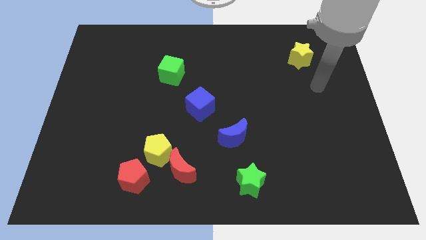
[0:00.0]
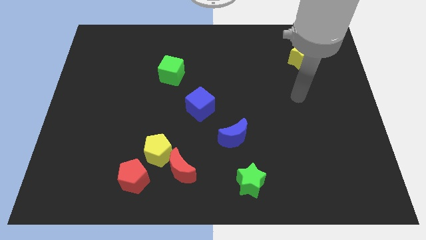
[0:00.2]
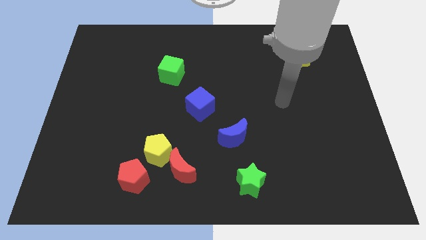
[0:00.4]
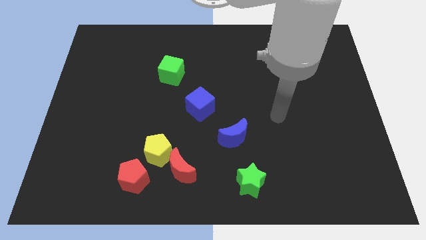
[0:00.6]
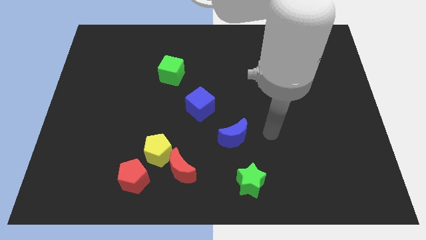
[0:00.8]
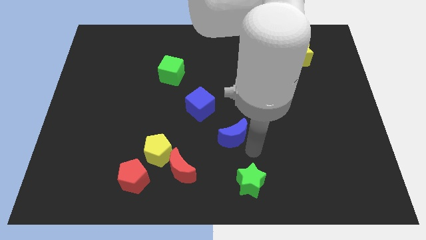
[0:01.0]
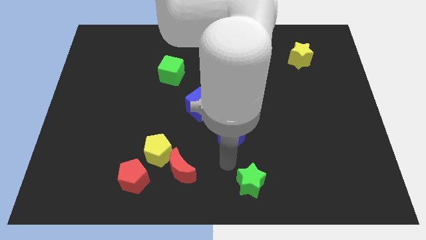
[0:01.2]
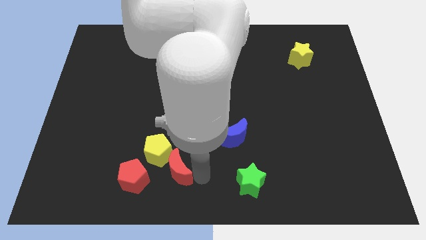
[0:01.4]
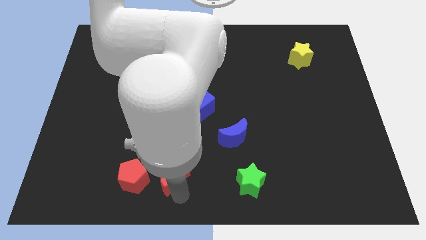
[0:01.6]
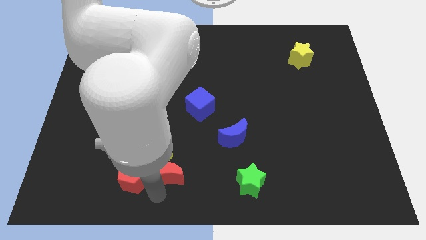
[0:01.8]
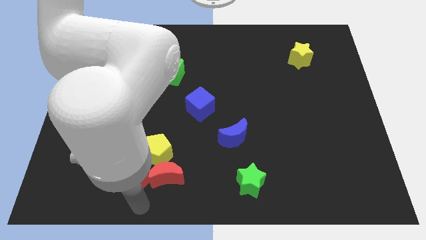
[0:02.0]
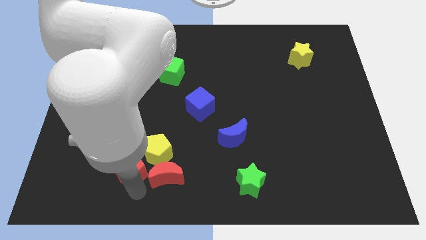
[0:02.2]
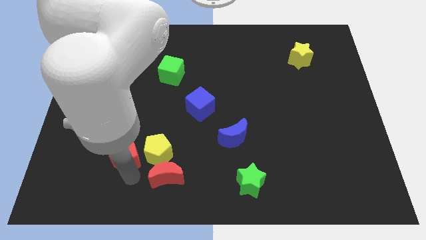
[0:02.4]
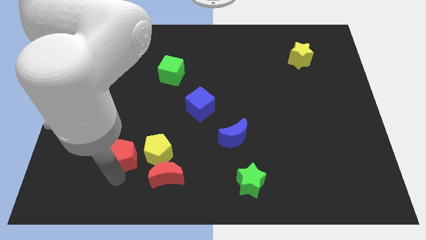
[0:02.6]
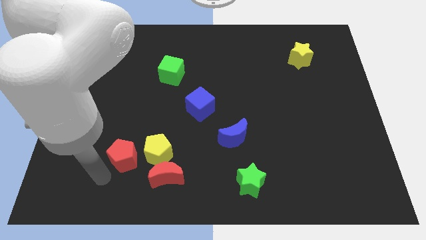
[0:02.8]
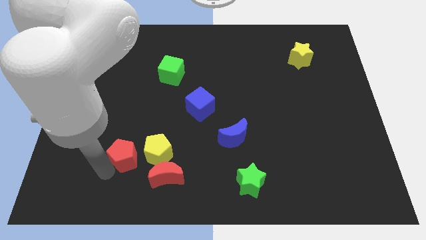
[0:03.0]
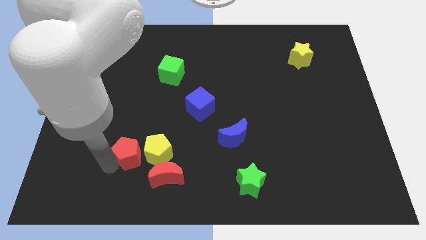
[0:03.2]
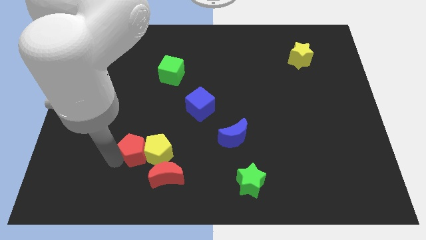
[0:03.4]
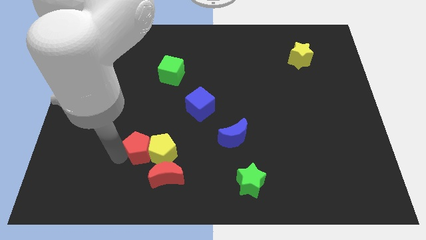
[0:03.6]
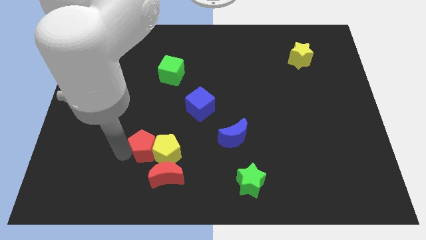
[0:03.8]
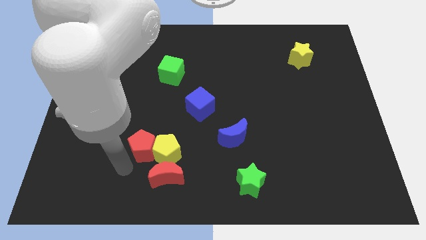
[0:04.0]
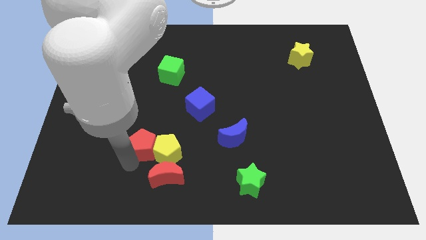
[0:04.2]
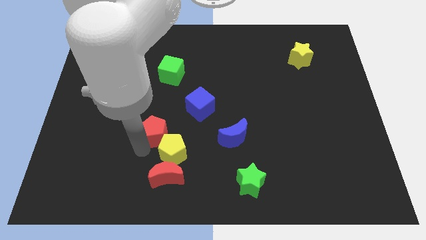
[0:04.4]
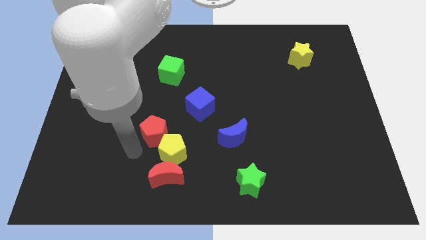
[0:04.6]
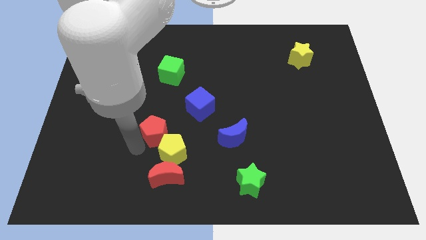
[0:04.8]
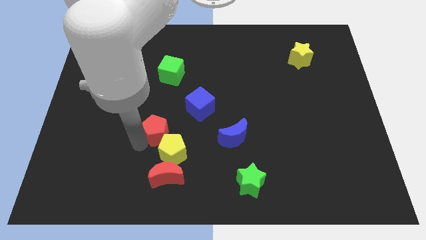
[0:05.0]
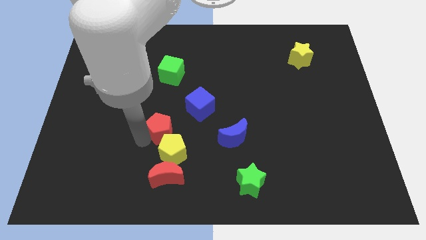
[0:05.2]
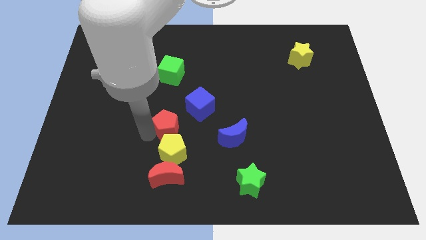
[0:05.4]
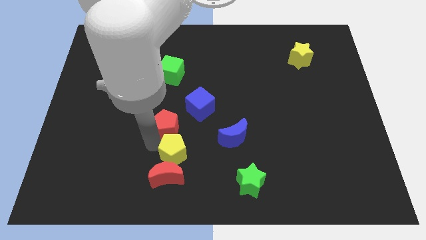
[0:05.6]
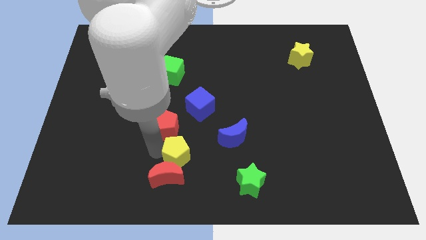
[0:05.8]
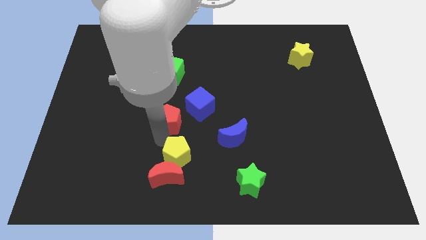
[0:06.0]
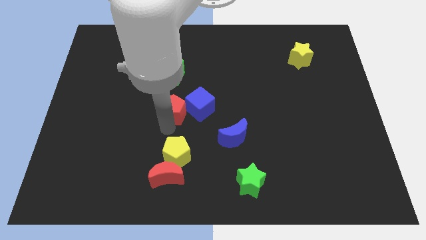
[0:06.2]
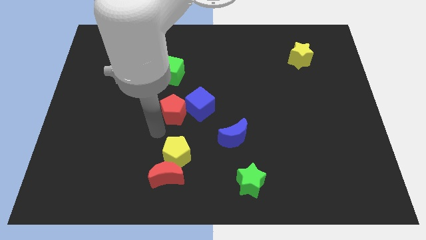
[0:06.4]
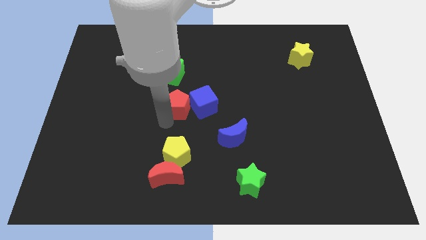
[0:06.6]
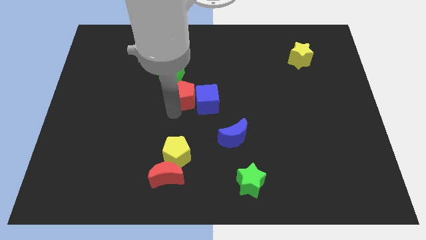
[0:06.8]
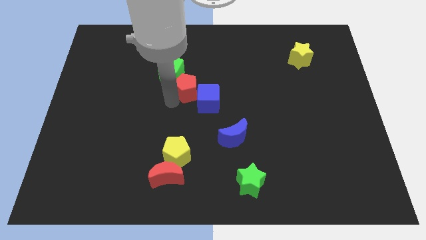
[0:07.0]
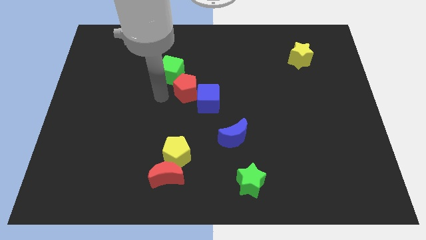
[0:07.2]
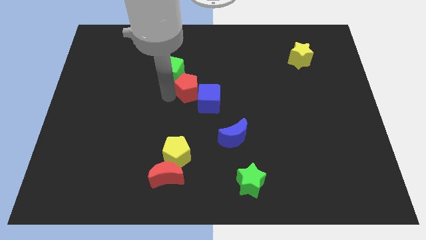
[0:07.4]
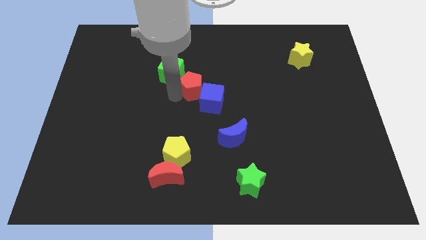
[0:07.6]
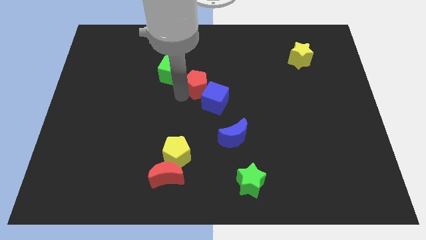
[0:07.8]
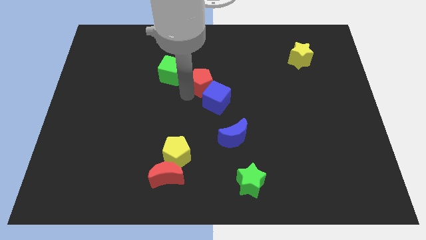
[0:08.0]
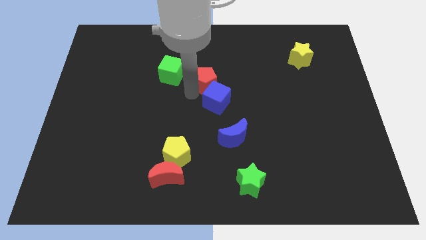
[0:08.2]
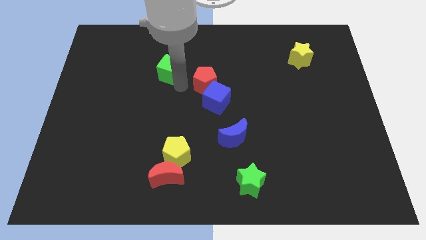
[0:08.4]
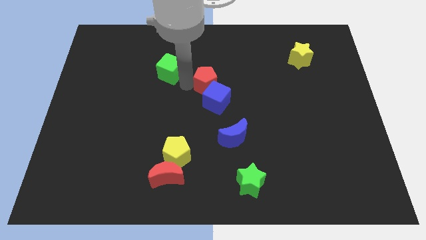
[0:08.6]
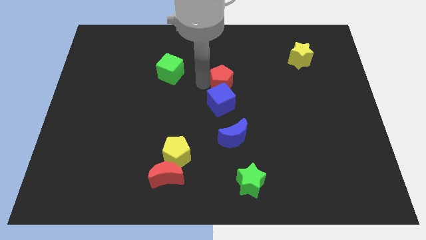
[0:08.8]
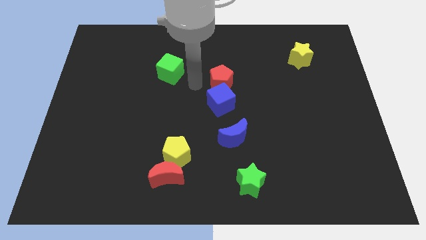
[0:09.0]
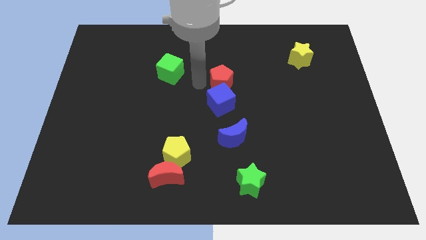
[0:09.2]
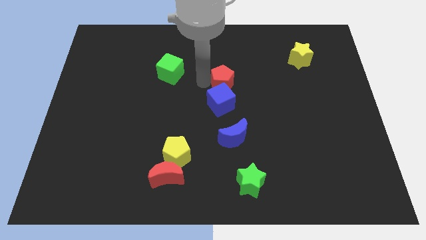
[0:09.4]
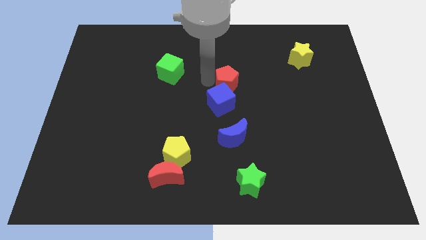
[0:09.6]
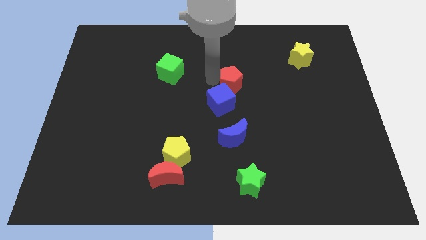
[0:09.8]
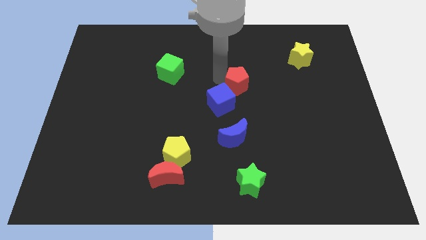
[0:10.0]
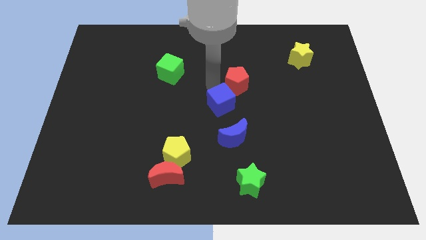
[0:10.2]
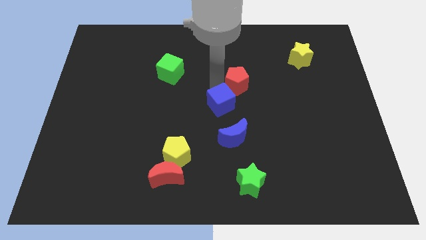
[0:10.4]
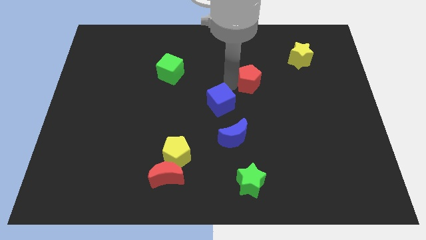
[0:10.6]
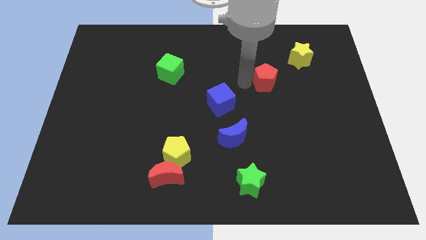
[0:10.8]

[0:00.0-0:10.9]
push the red pentagon to the bottom left side of the yellow star

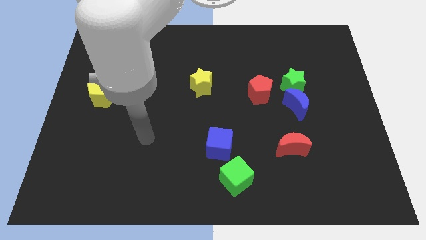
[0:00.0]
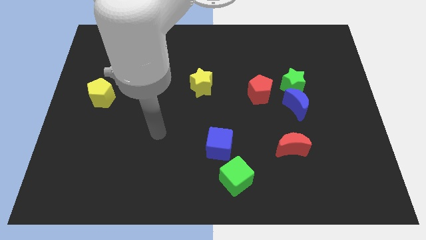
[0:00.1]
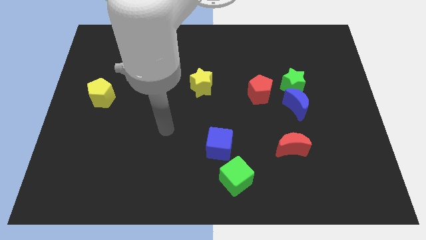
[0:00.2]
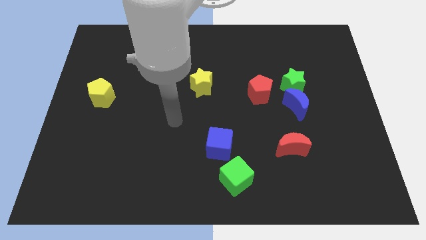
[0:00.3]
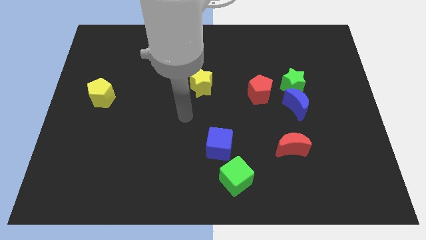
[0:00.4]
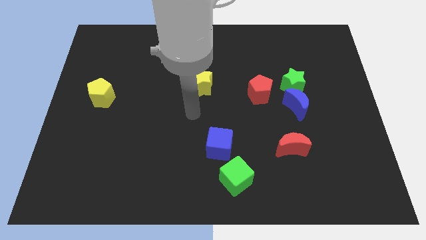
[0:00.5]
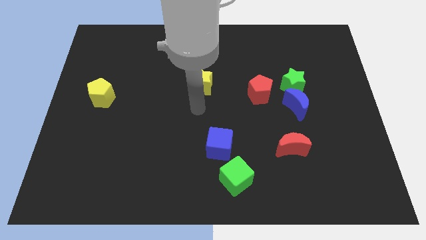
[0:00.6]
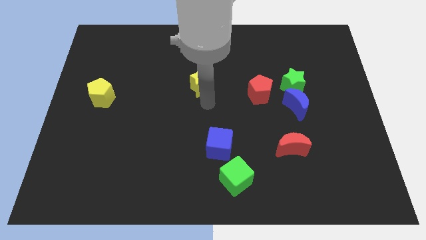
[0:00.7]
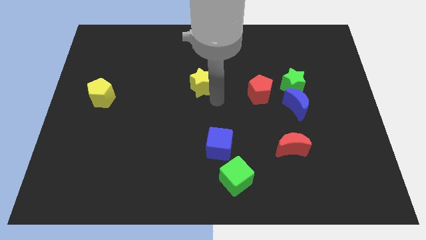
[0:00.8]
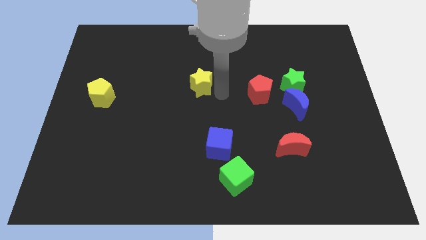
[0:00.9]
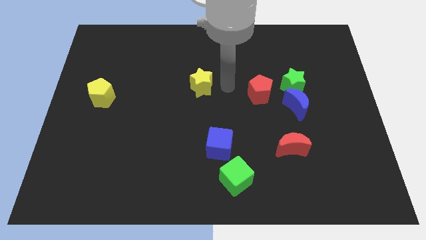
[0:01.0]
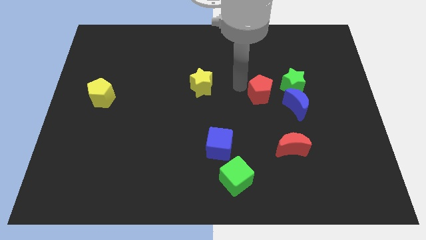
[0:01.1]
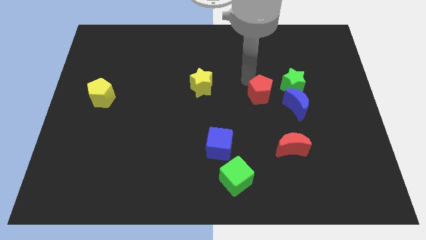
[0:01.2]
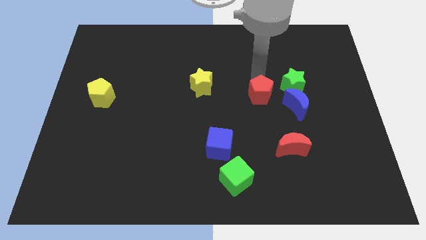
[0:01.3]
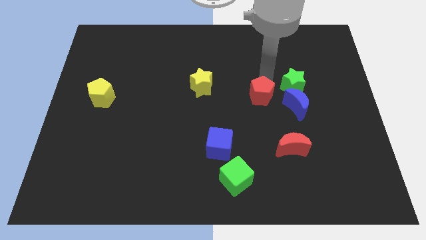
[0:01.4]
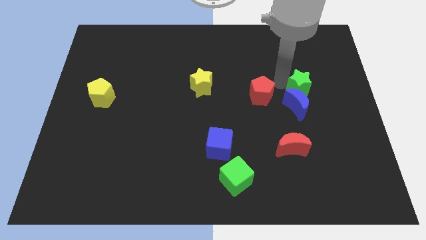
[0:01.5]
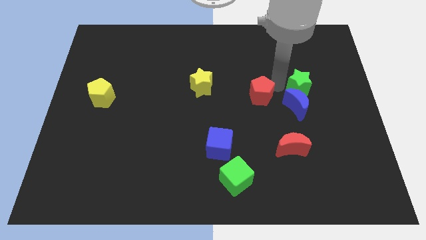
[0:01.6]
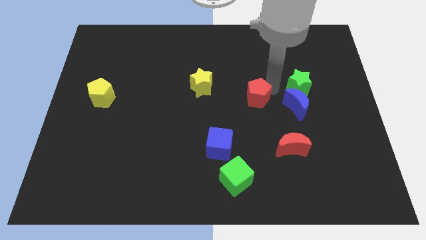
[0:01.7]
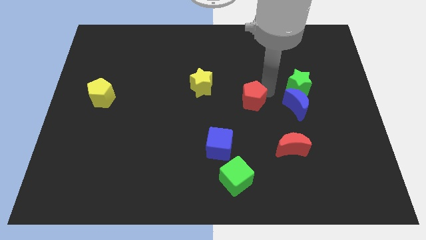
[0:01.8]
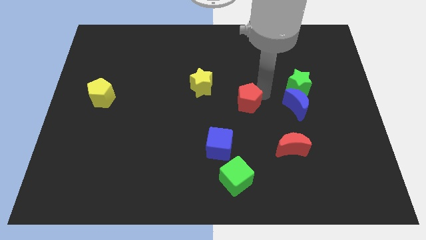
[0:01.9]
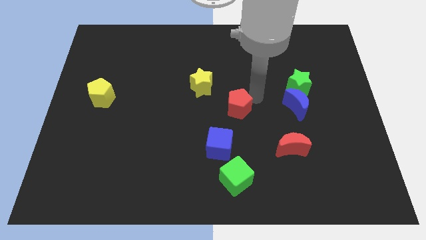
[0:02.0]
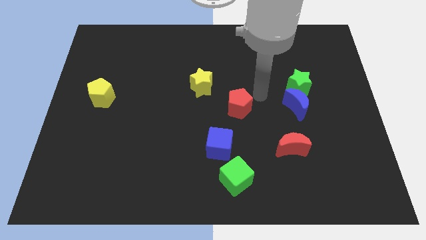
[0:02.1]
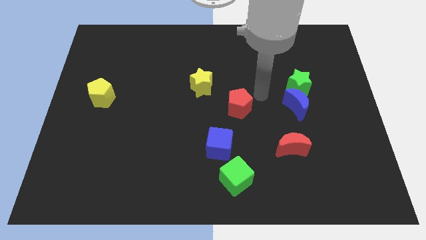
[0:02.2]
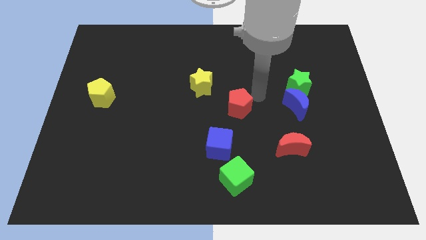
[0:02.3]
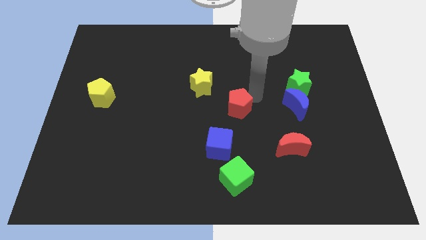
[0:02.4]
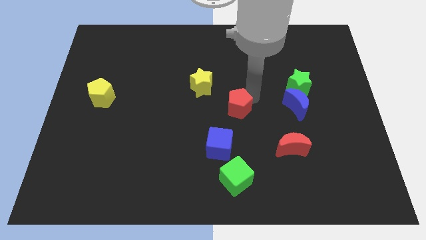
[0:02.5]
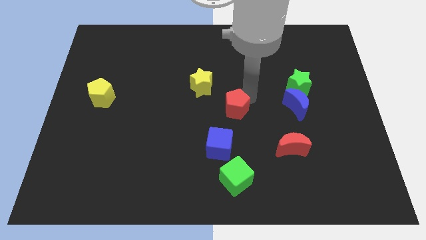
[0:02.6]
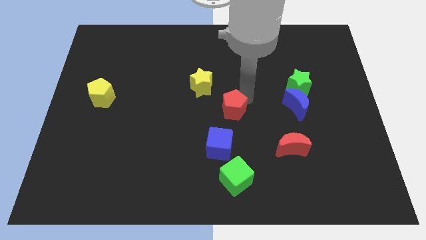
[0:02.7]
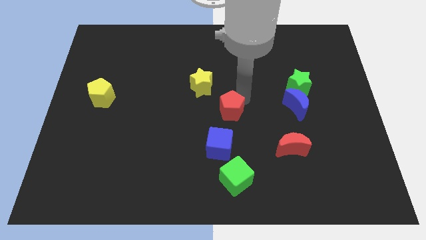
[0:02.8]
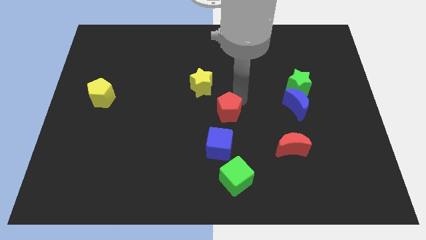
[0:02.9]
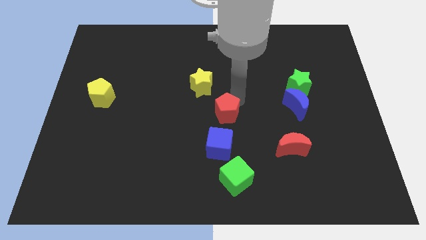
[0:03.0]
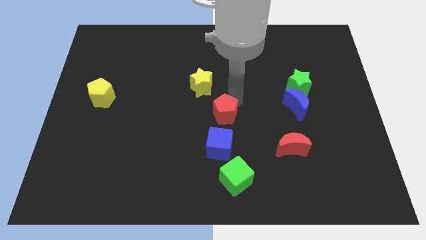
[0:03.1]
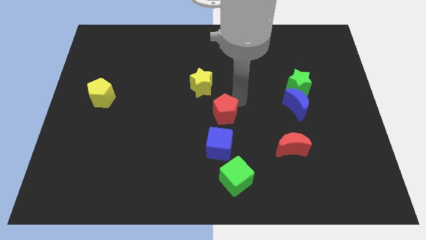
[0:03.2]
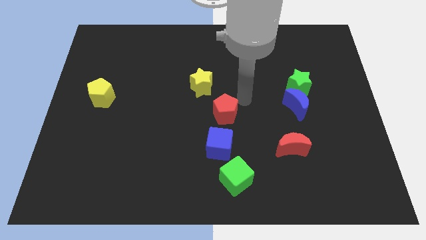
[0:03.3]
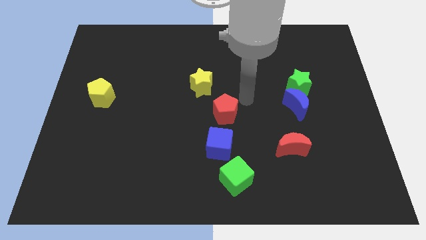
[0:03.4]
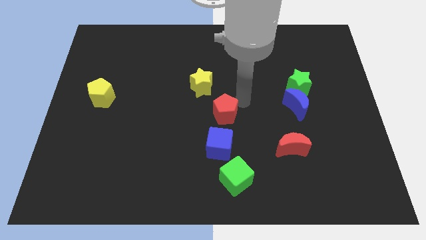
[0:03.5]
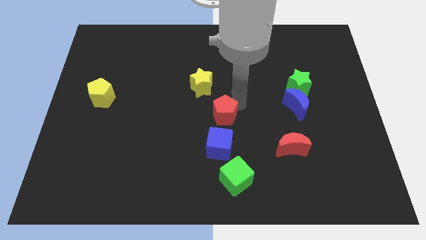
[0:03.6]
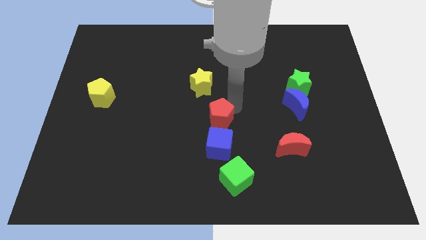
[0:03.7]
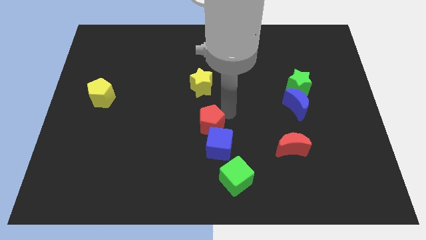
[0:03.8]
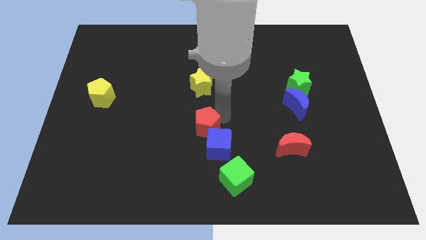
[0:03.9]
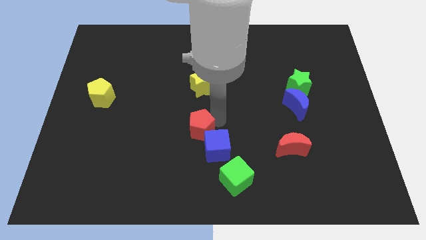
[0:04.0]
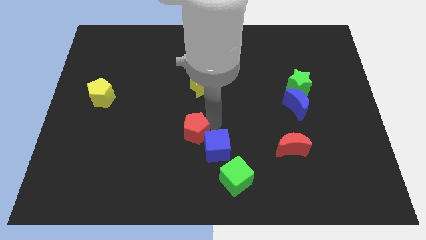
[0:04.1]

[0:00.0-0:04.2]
put the red pentagon just left of the blue cube
